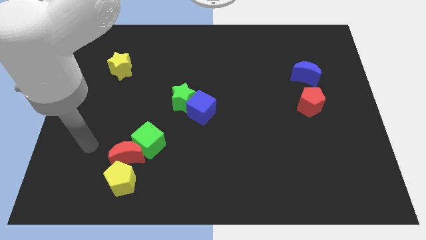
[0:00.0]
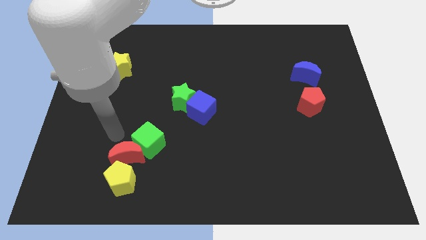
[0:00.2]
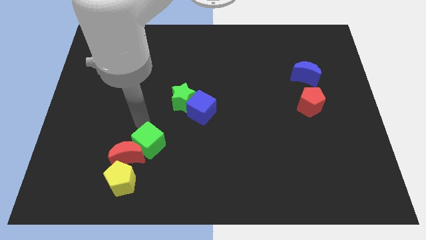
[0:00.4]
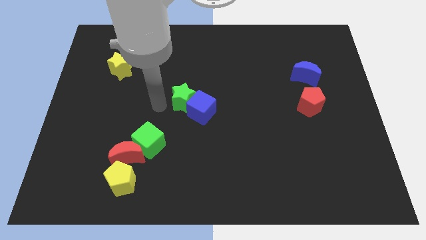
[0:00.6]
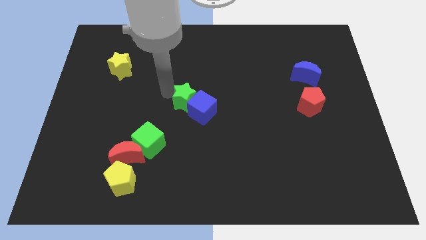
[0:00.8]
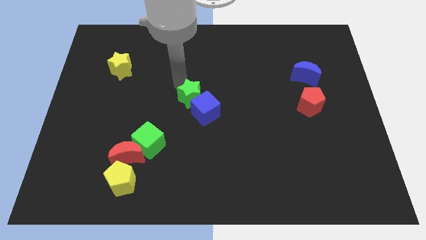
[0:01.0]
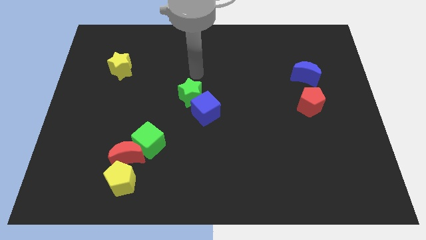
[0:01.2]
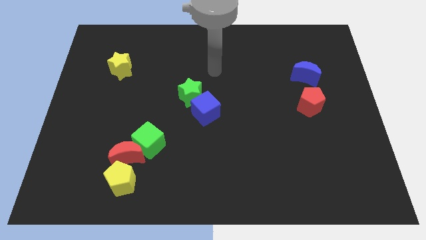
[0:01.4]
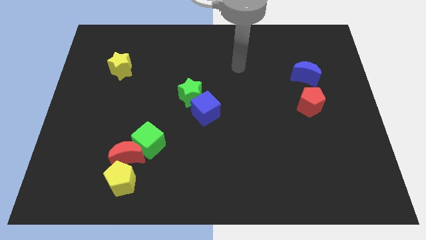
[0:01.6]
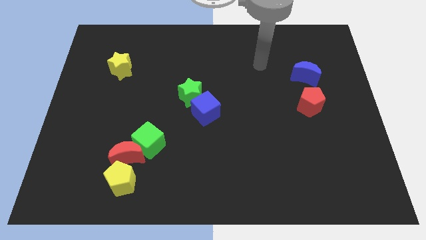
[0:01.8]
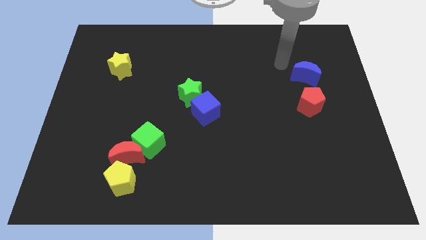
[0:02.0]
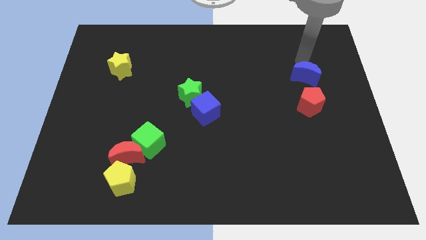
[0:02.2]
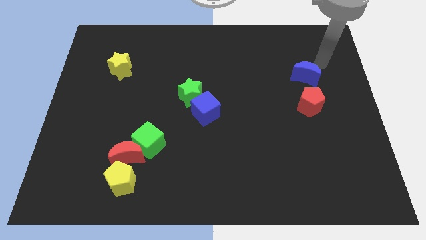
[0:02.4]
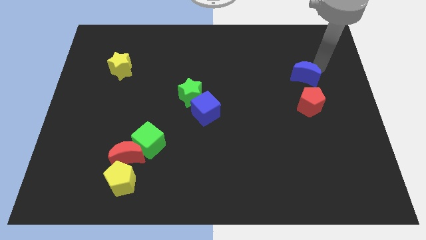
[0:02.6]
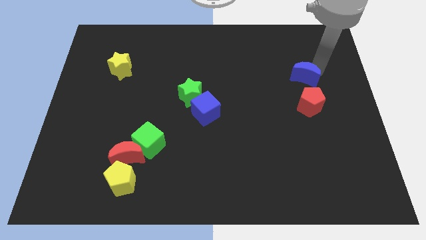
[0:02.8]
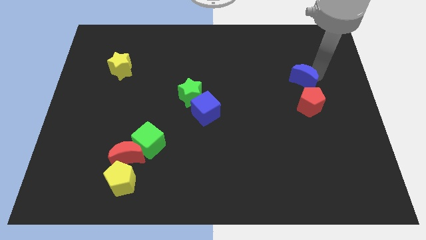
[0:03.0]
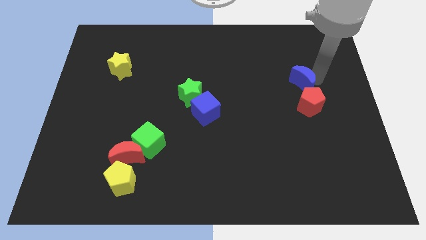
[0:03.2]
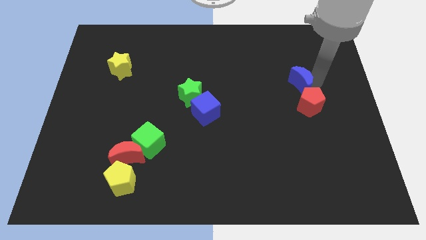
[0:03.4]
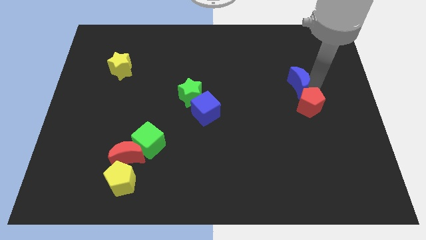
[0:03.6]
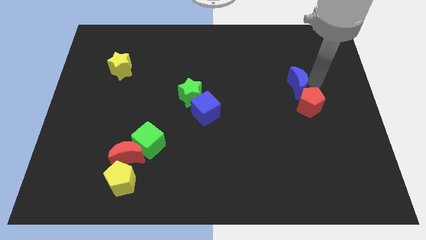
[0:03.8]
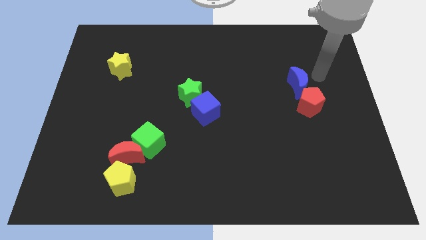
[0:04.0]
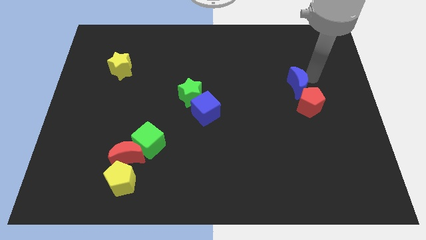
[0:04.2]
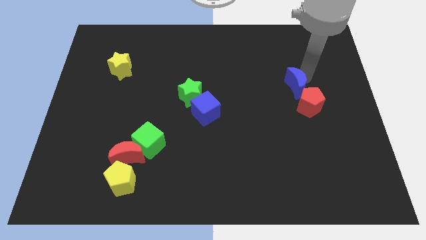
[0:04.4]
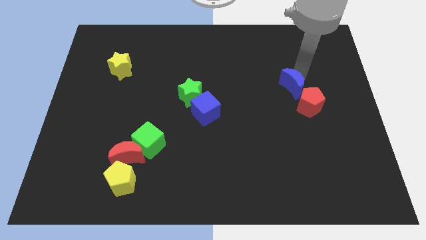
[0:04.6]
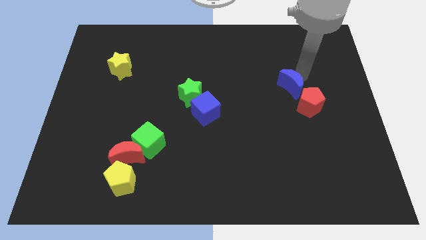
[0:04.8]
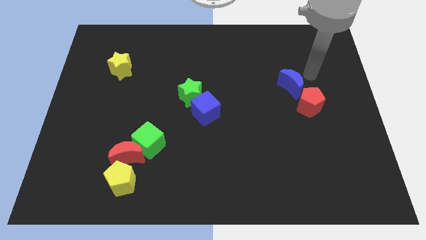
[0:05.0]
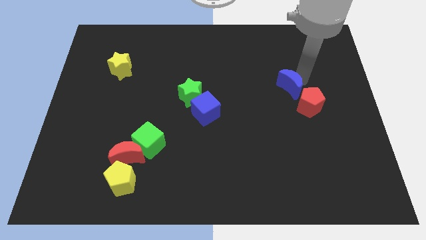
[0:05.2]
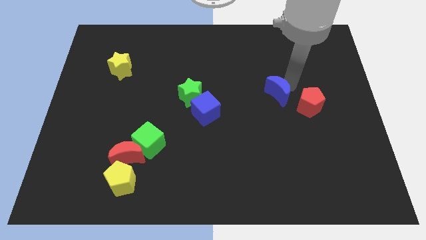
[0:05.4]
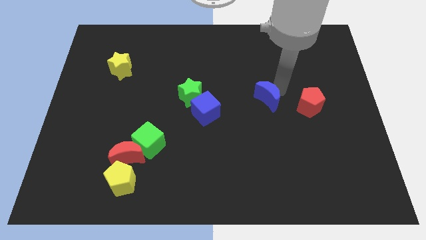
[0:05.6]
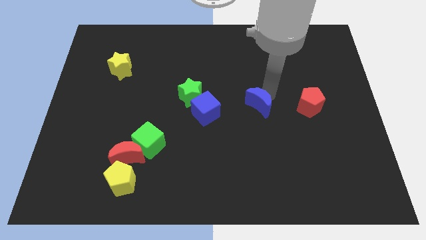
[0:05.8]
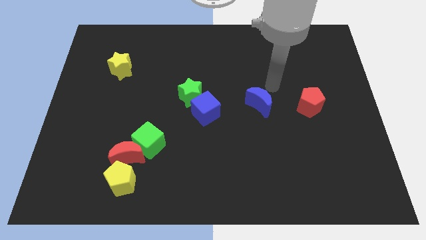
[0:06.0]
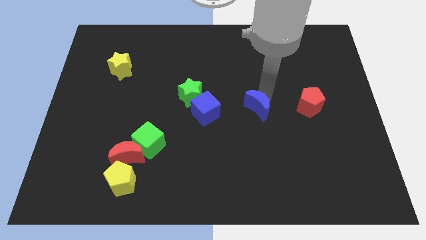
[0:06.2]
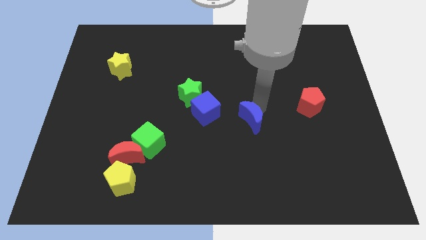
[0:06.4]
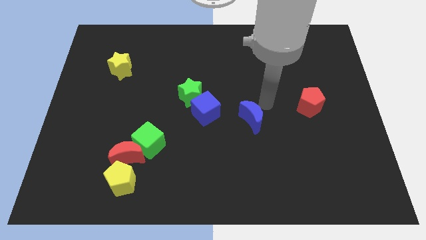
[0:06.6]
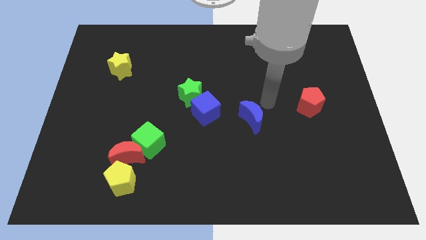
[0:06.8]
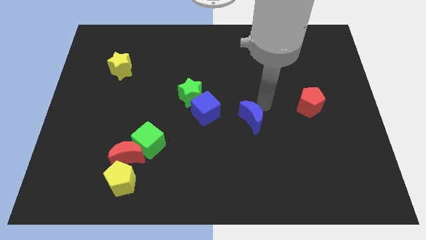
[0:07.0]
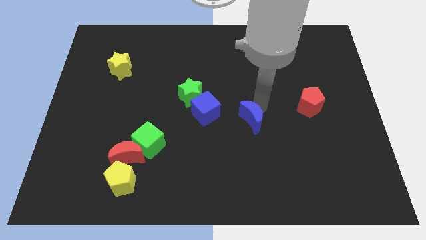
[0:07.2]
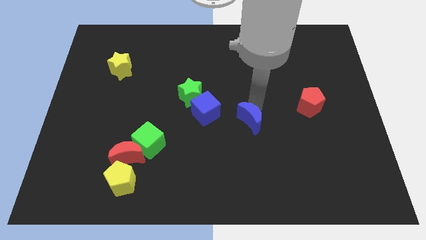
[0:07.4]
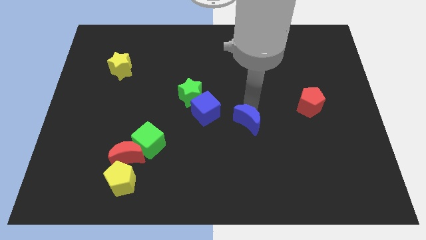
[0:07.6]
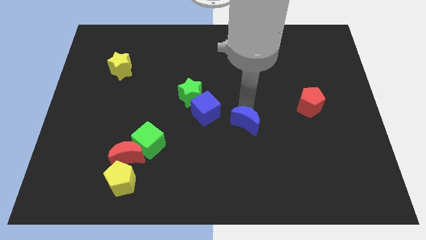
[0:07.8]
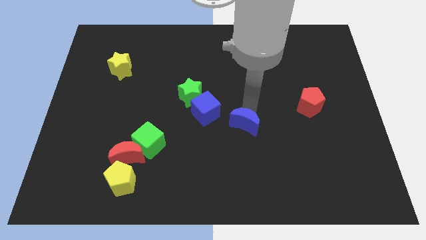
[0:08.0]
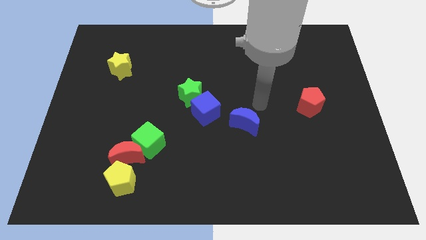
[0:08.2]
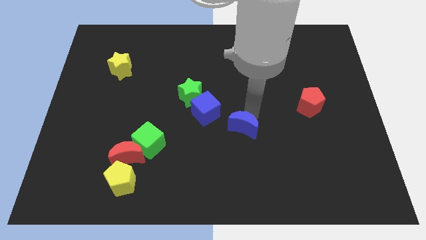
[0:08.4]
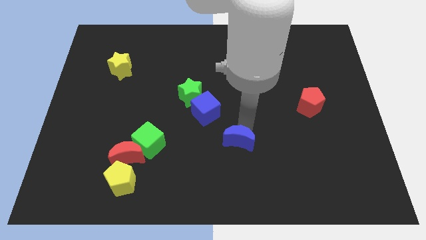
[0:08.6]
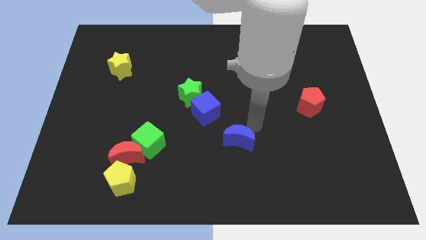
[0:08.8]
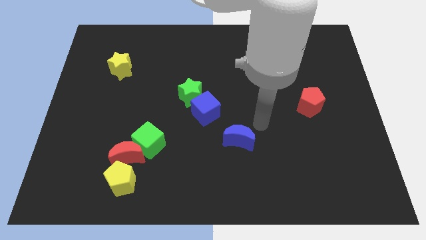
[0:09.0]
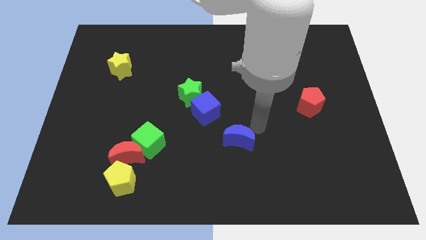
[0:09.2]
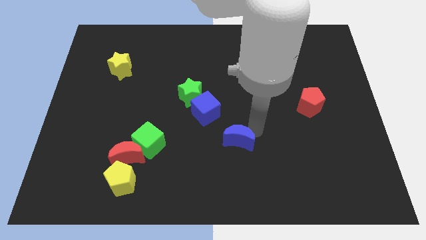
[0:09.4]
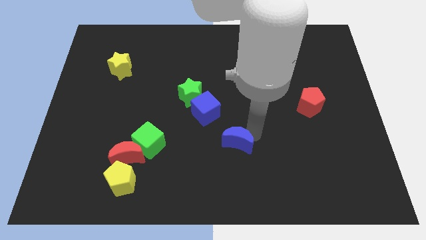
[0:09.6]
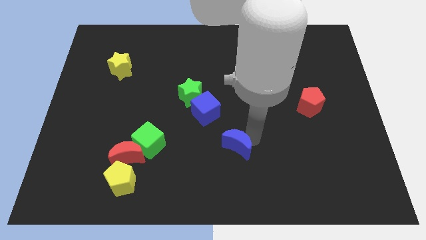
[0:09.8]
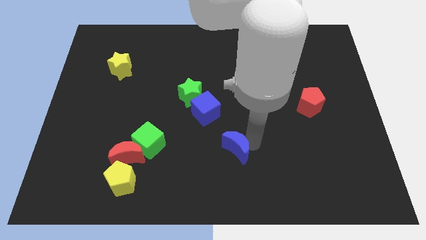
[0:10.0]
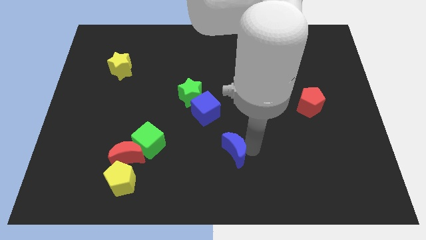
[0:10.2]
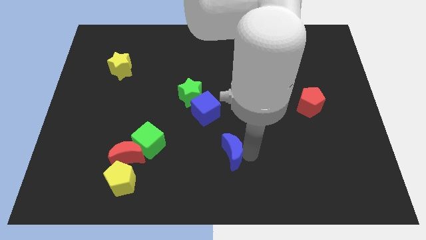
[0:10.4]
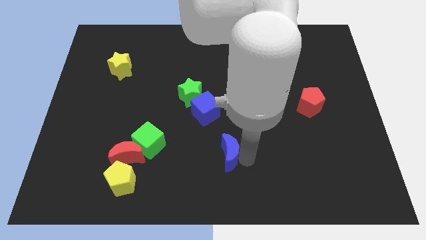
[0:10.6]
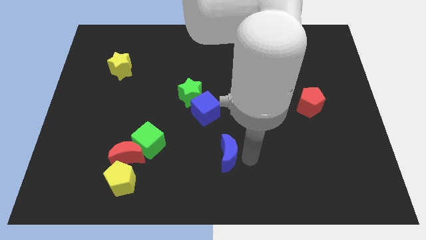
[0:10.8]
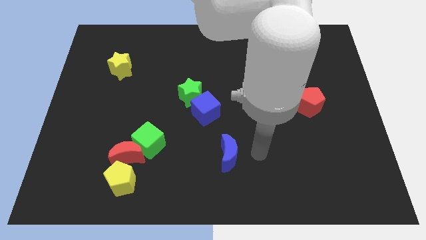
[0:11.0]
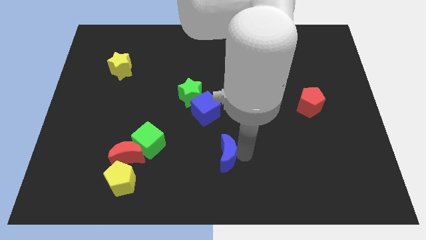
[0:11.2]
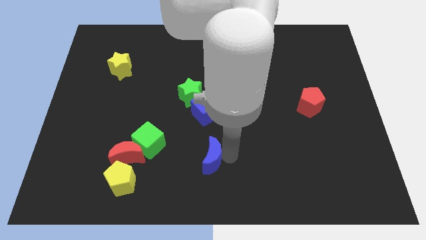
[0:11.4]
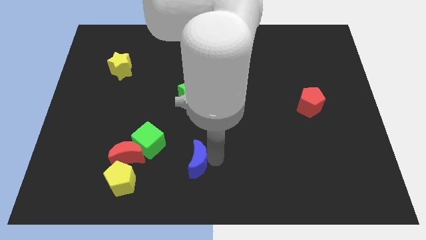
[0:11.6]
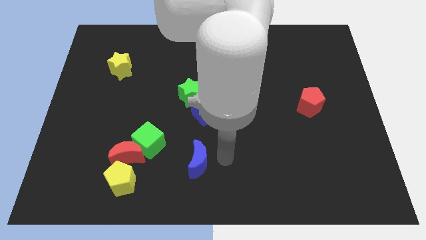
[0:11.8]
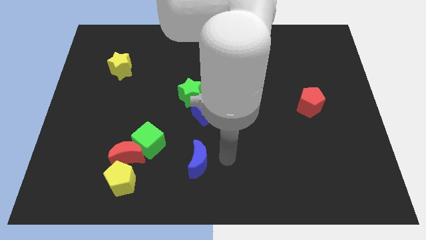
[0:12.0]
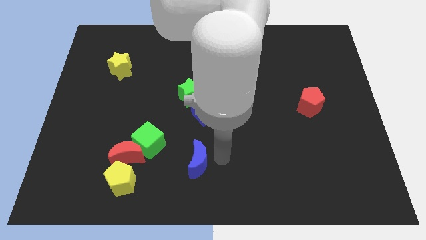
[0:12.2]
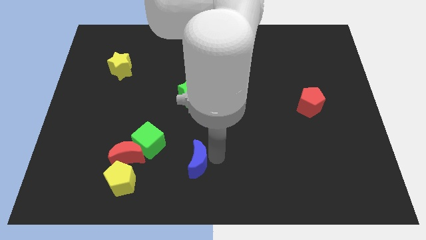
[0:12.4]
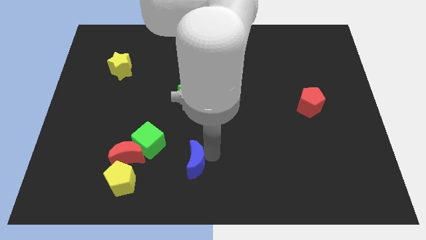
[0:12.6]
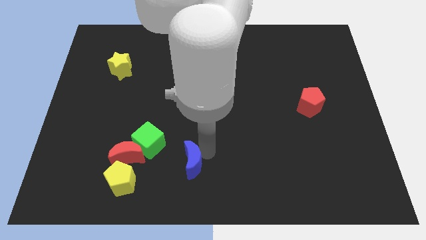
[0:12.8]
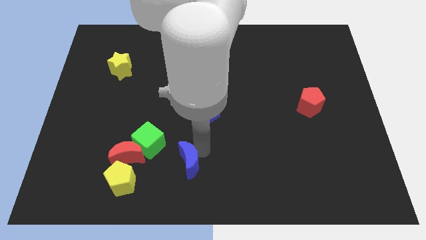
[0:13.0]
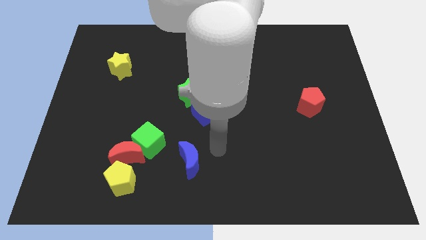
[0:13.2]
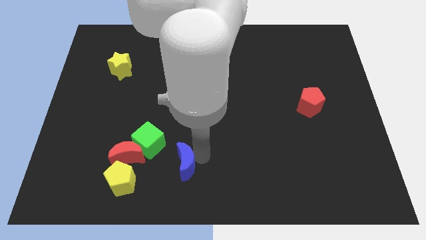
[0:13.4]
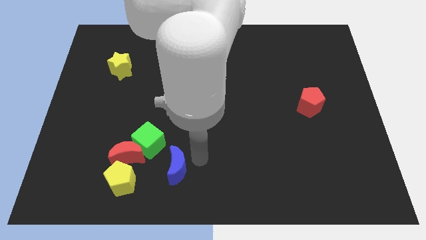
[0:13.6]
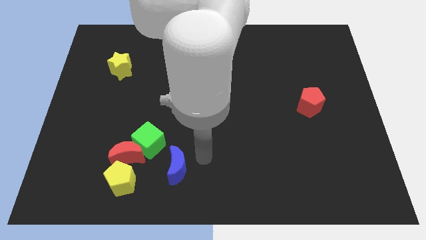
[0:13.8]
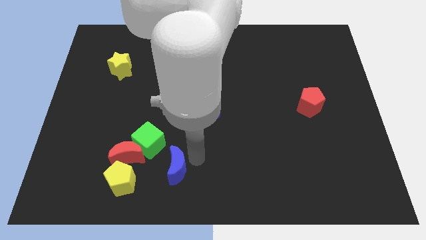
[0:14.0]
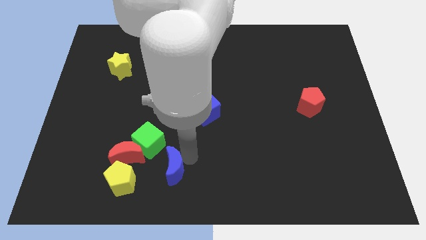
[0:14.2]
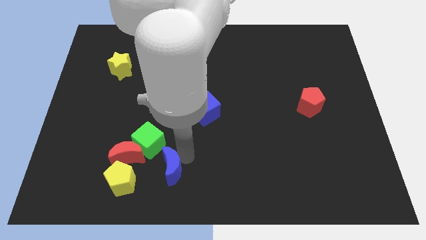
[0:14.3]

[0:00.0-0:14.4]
move the blue moon to the bottom right side of the red moon
